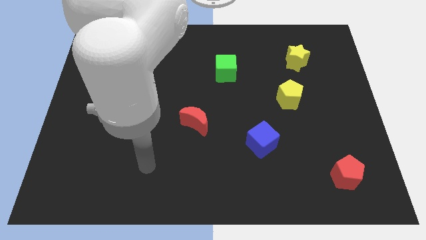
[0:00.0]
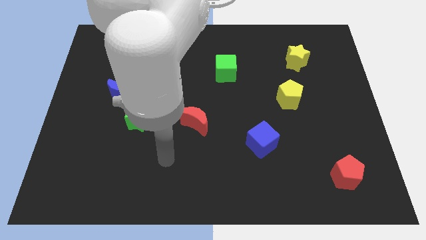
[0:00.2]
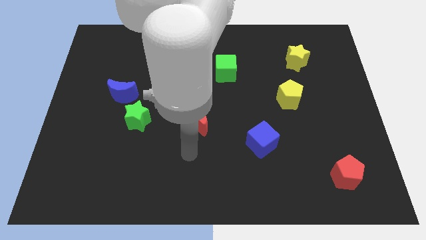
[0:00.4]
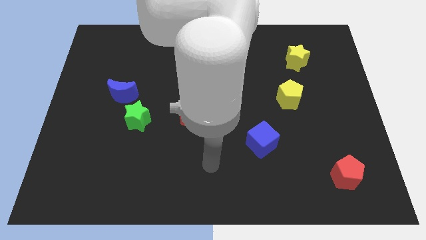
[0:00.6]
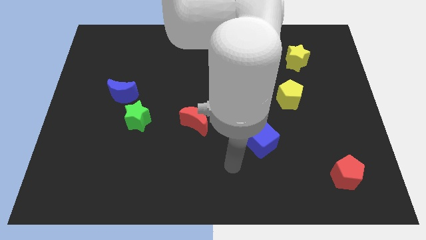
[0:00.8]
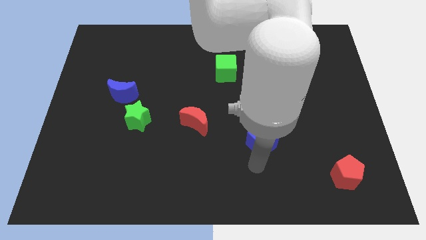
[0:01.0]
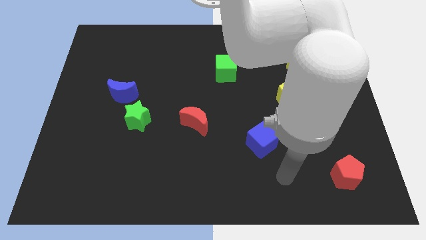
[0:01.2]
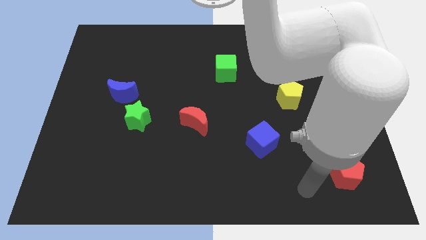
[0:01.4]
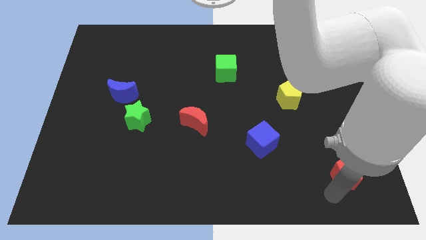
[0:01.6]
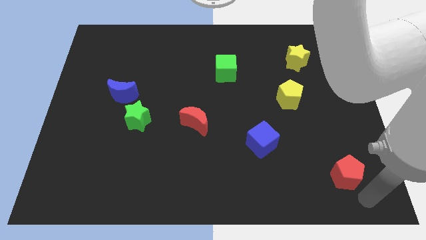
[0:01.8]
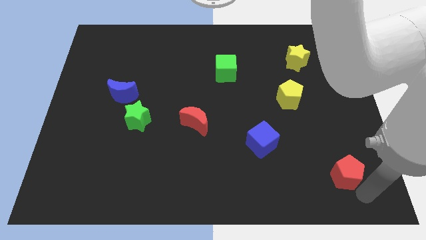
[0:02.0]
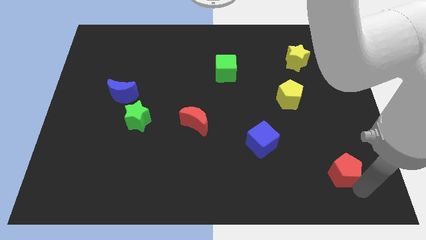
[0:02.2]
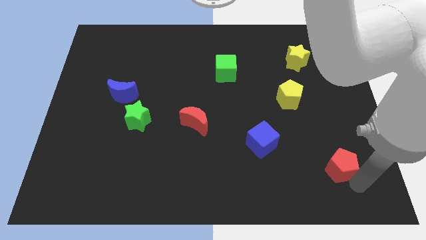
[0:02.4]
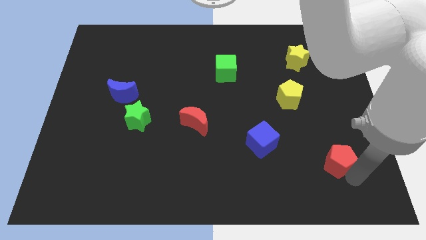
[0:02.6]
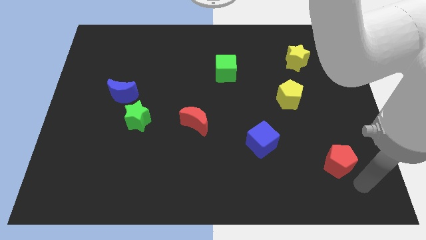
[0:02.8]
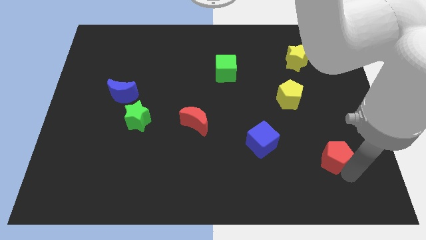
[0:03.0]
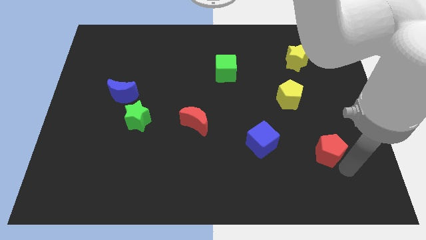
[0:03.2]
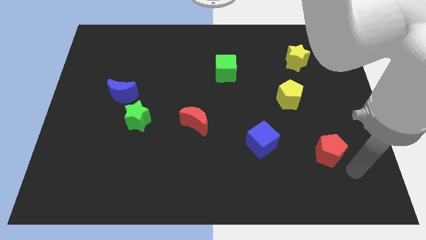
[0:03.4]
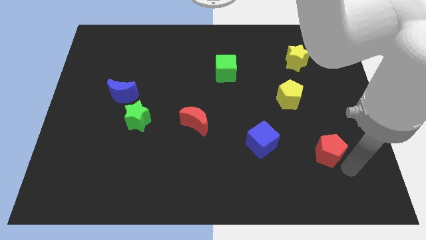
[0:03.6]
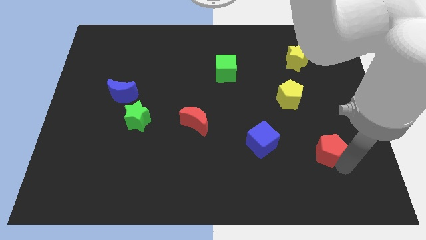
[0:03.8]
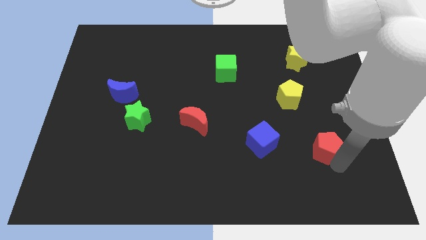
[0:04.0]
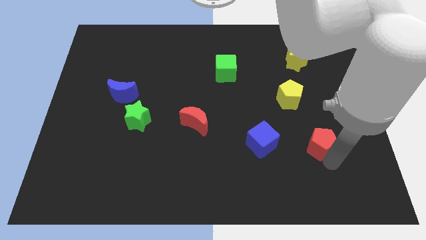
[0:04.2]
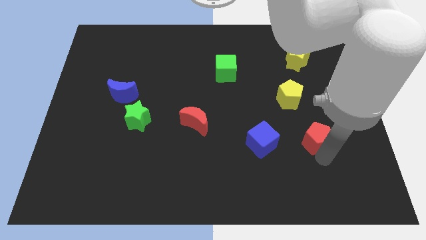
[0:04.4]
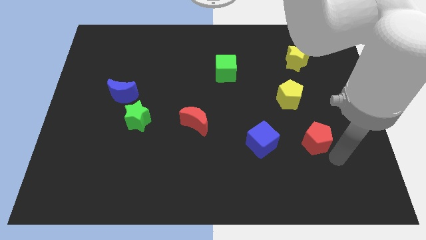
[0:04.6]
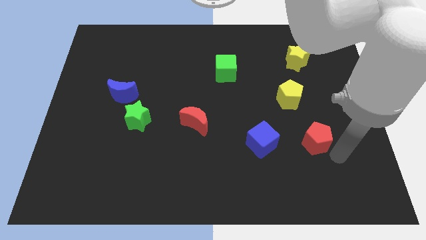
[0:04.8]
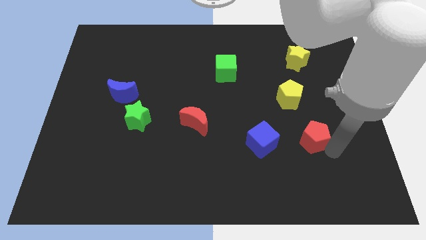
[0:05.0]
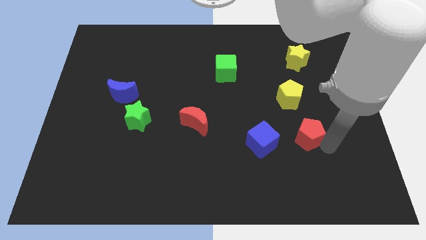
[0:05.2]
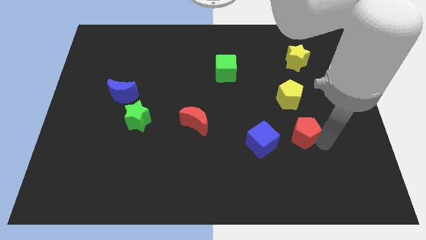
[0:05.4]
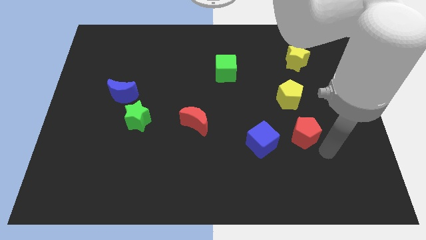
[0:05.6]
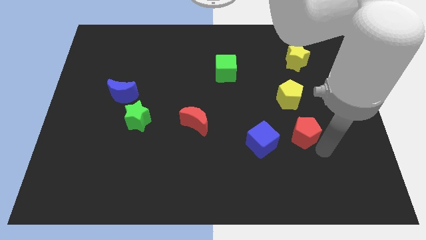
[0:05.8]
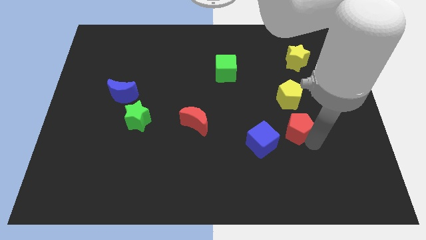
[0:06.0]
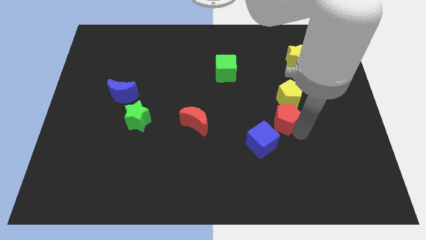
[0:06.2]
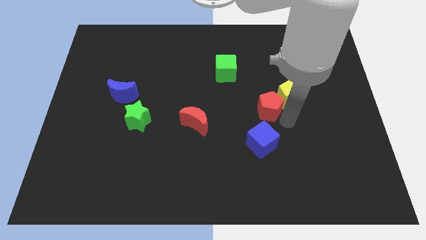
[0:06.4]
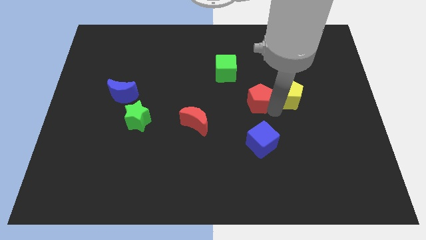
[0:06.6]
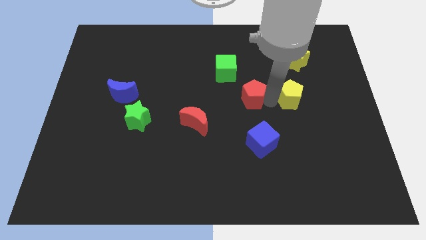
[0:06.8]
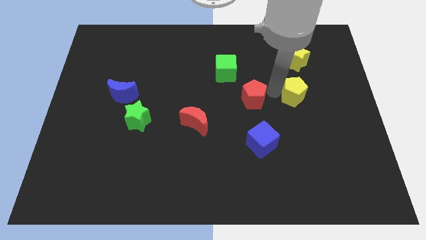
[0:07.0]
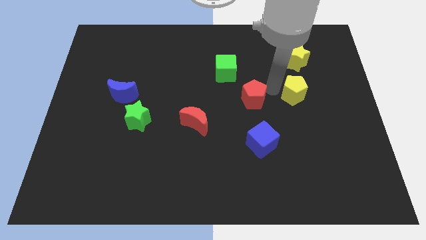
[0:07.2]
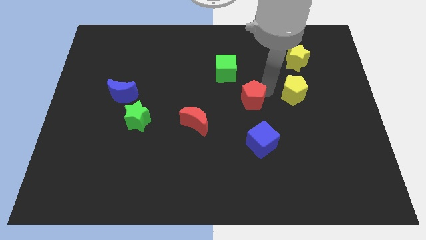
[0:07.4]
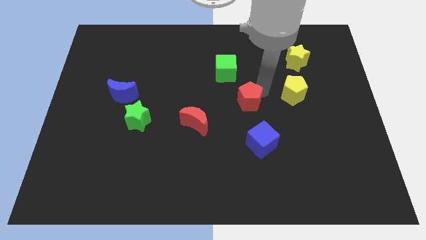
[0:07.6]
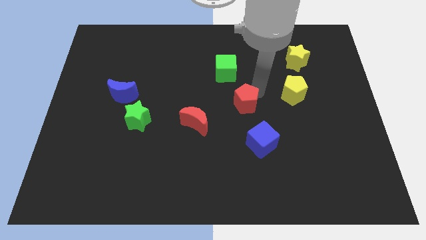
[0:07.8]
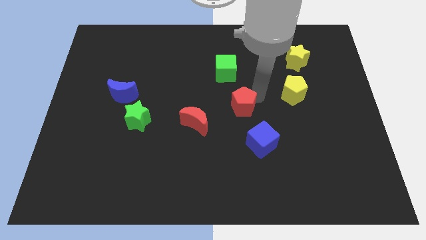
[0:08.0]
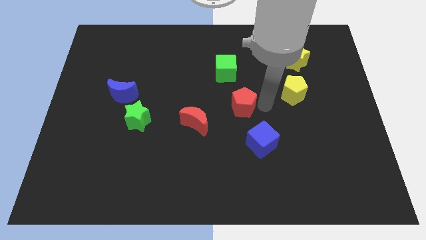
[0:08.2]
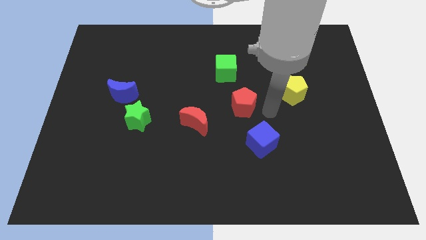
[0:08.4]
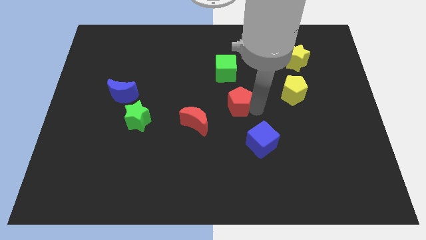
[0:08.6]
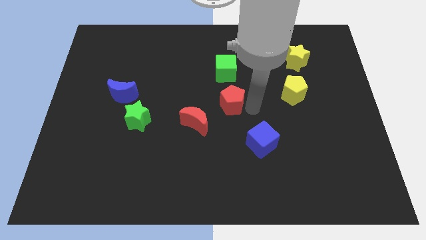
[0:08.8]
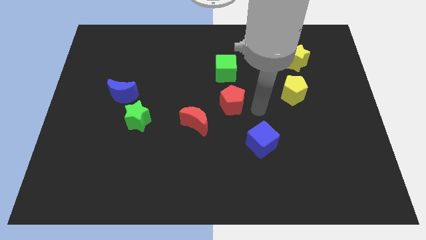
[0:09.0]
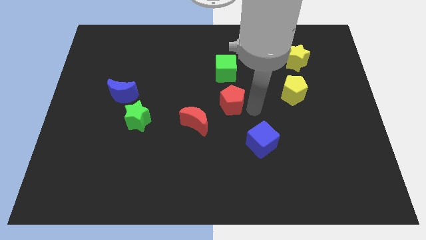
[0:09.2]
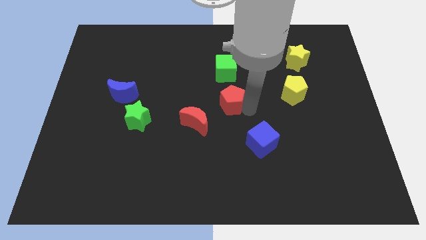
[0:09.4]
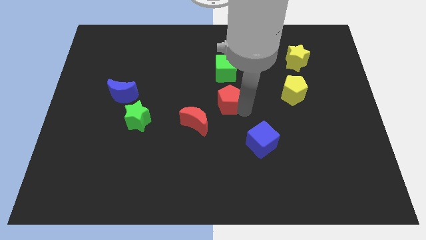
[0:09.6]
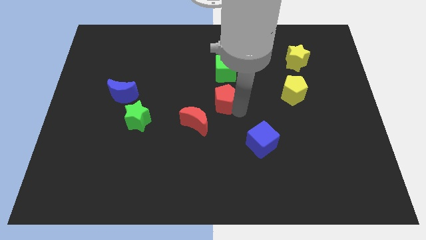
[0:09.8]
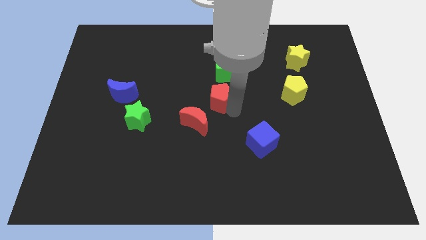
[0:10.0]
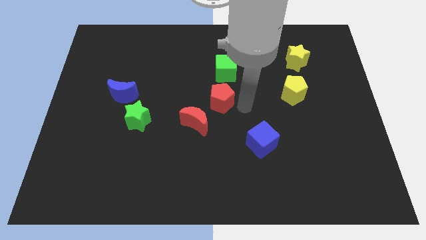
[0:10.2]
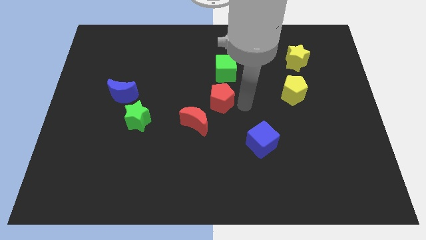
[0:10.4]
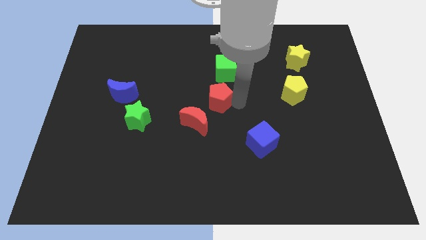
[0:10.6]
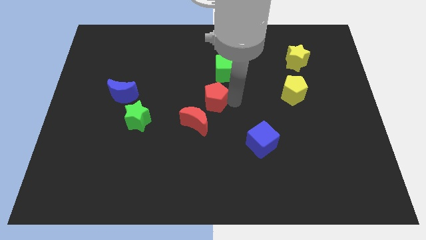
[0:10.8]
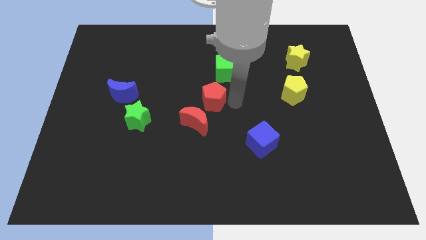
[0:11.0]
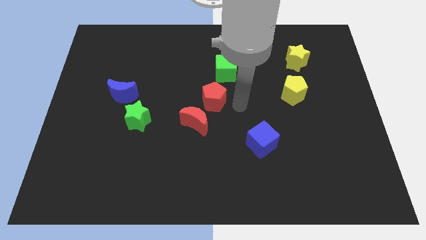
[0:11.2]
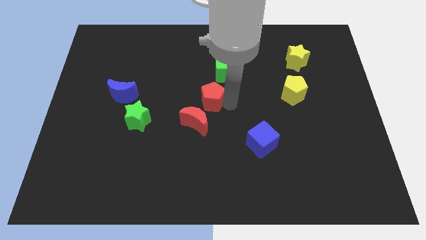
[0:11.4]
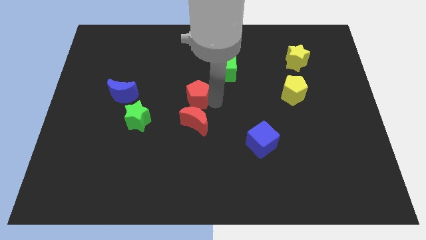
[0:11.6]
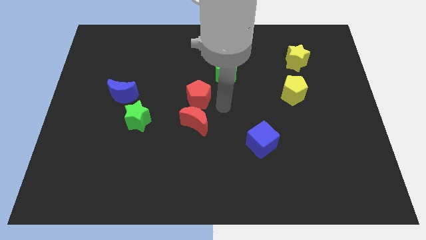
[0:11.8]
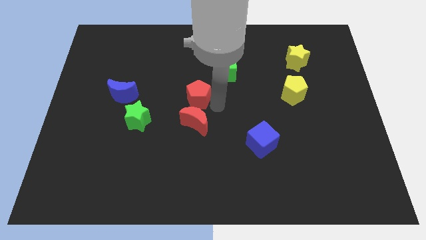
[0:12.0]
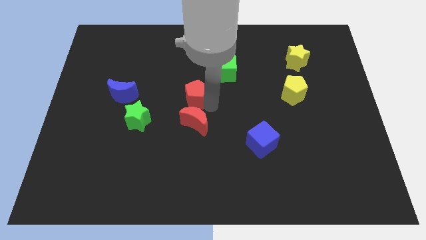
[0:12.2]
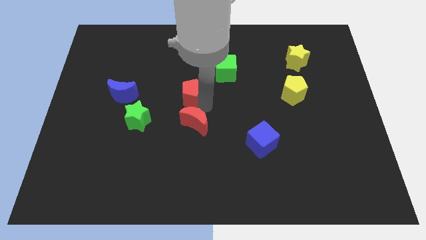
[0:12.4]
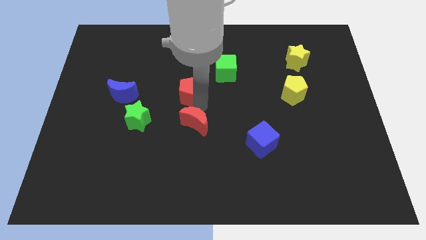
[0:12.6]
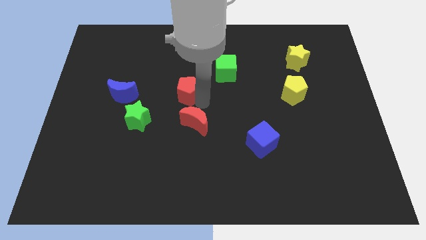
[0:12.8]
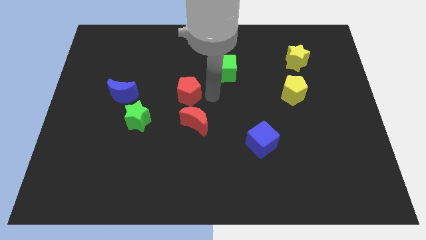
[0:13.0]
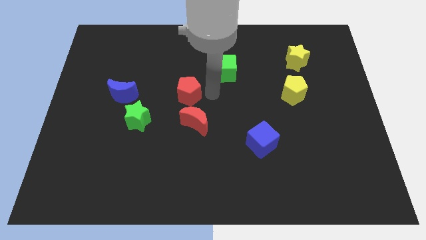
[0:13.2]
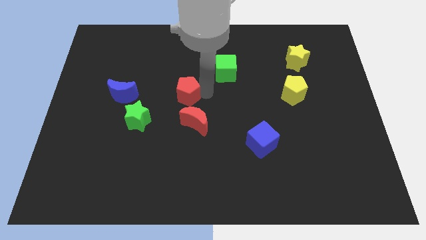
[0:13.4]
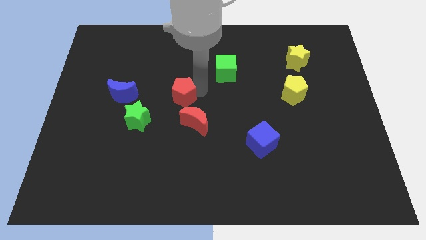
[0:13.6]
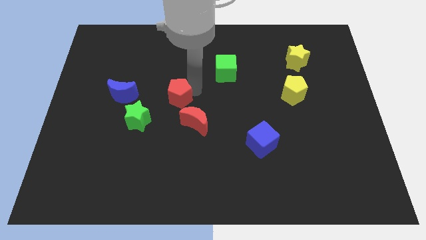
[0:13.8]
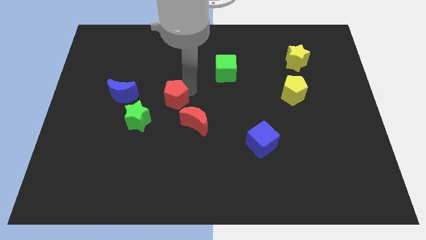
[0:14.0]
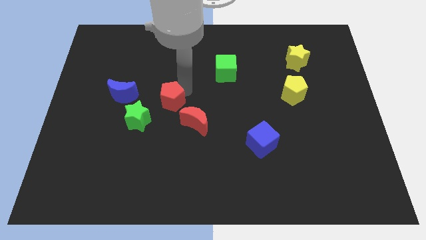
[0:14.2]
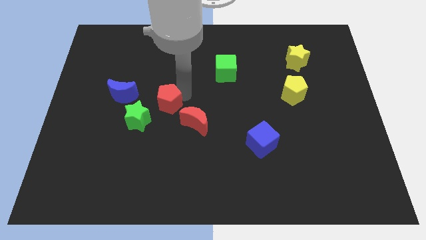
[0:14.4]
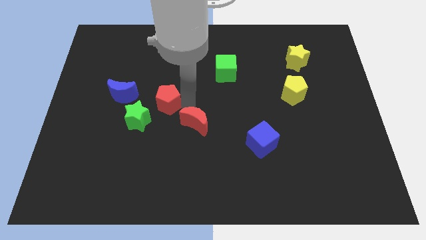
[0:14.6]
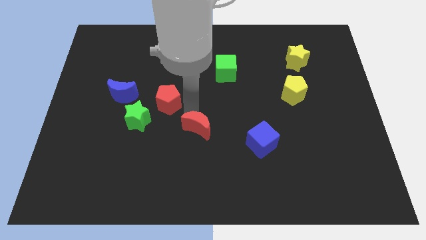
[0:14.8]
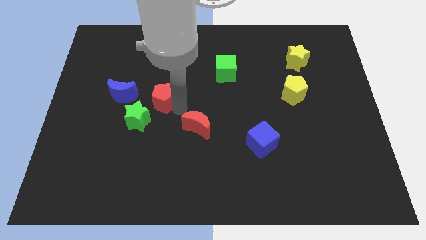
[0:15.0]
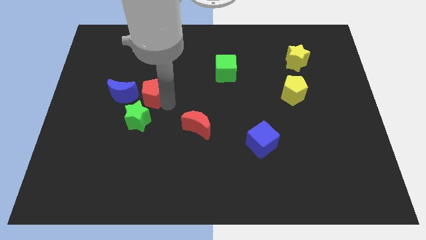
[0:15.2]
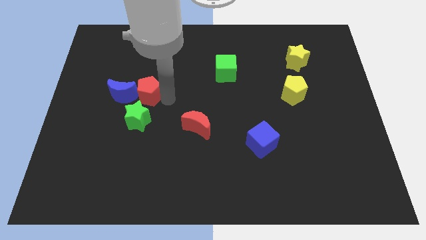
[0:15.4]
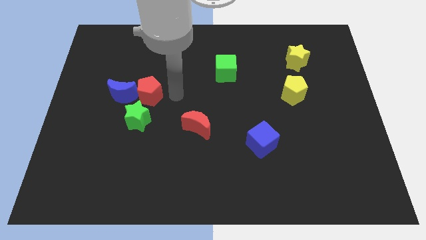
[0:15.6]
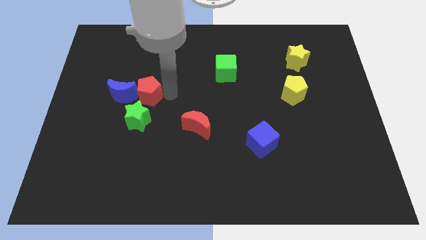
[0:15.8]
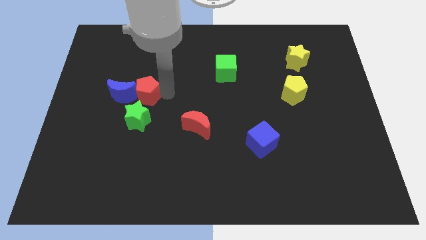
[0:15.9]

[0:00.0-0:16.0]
push the red pentagon close to the blue moon
